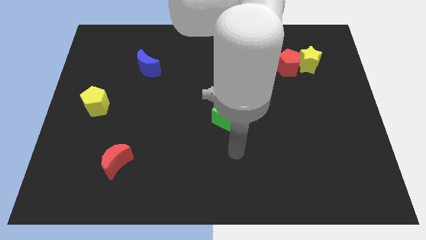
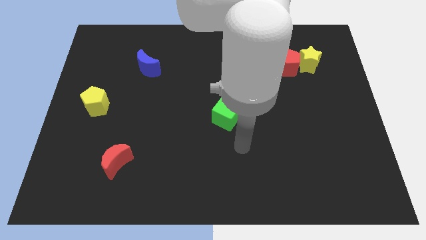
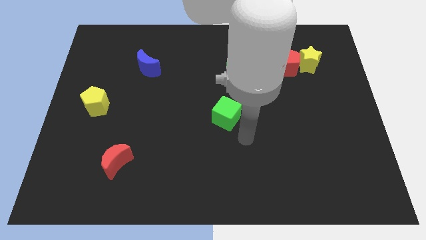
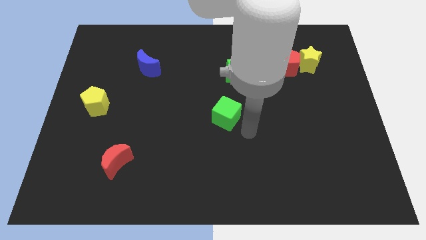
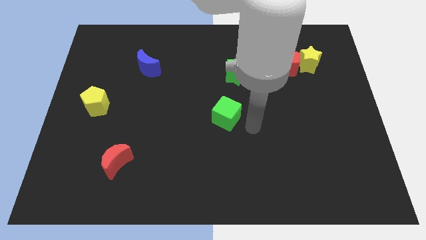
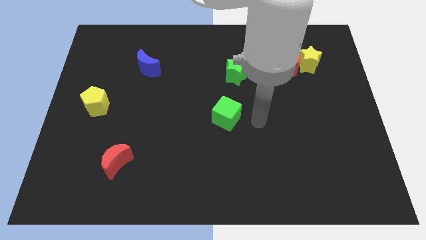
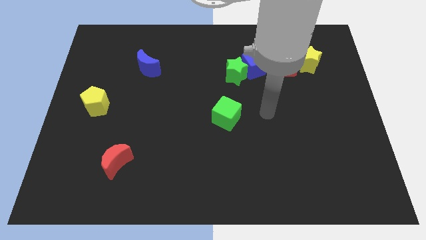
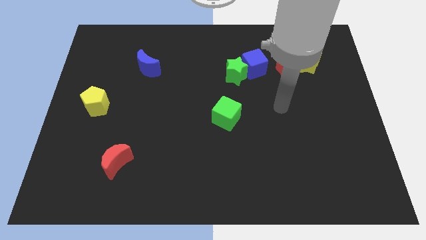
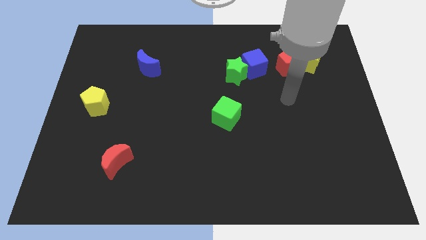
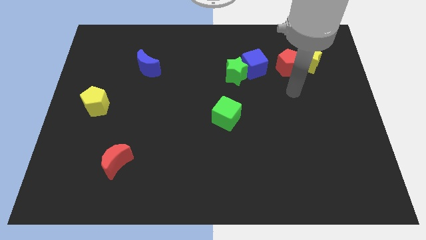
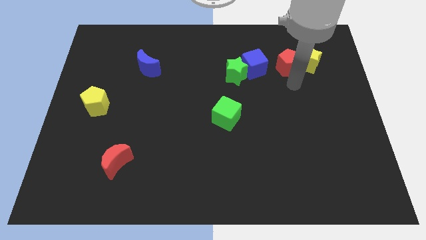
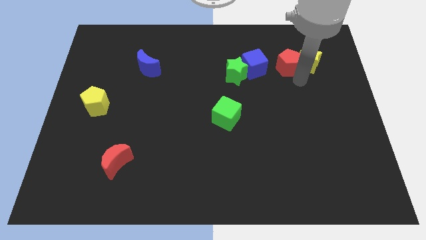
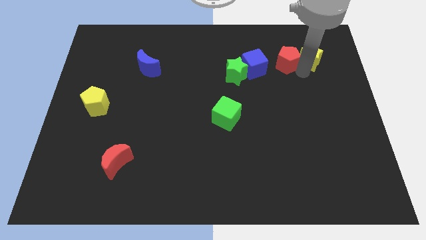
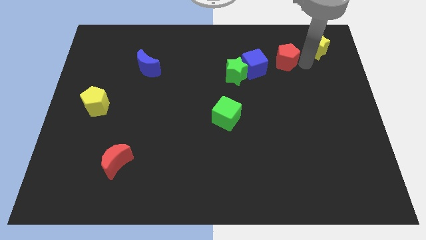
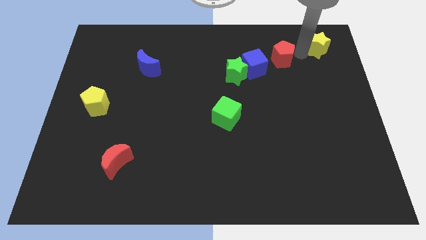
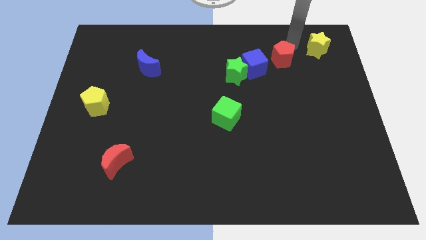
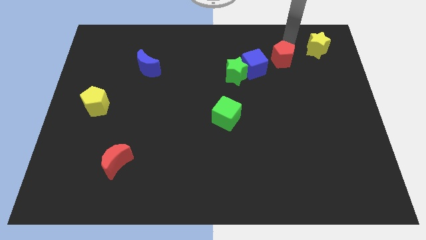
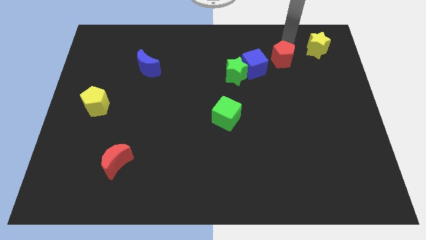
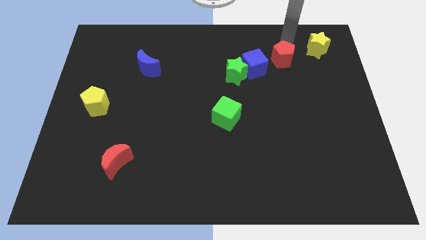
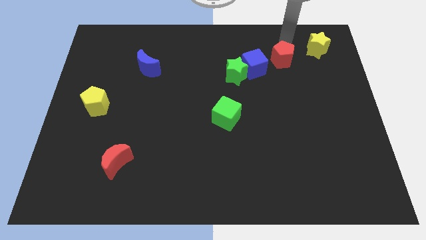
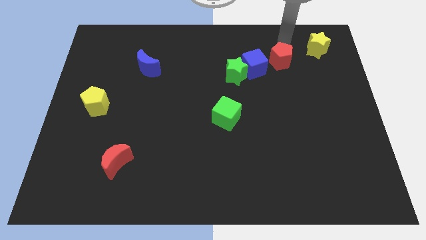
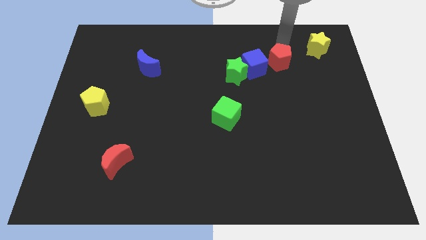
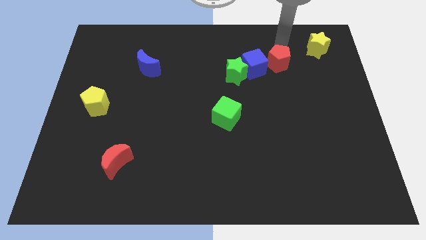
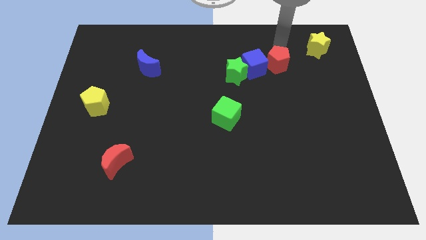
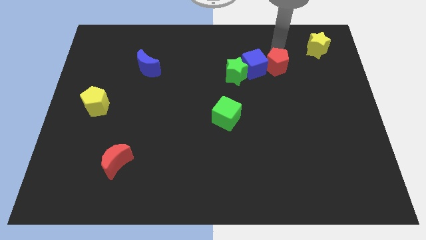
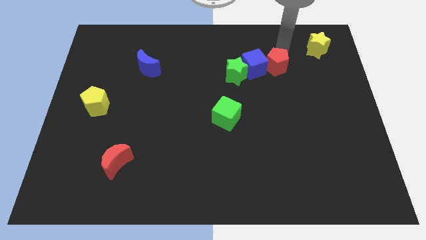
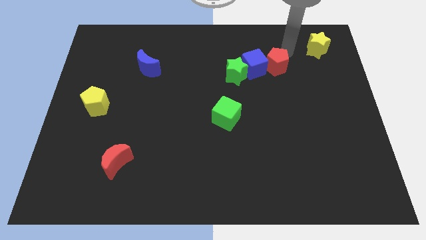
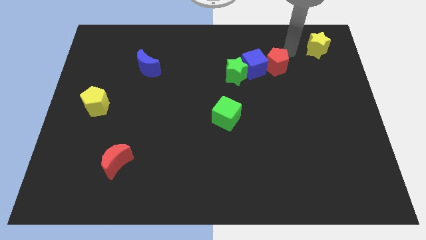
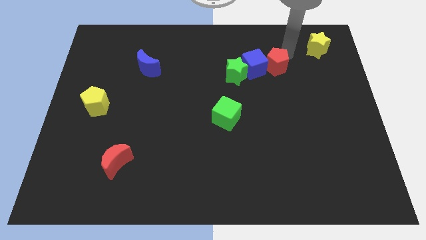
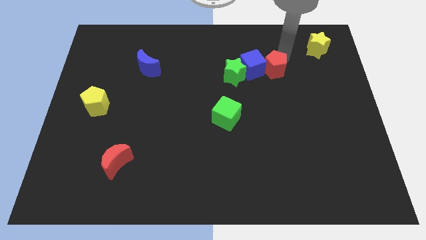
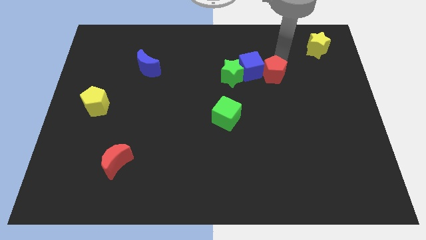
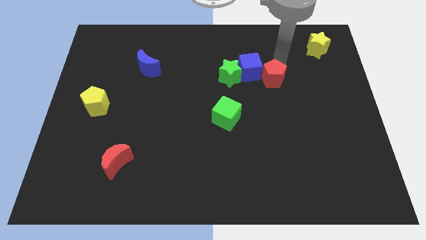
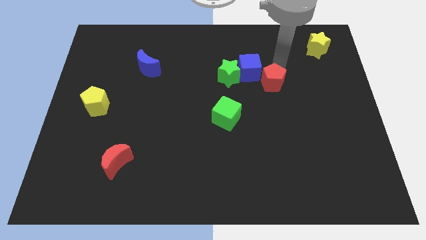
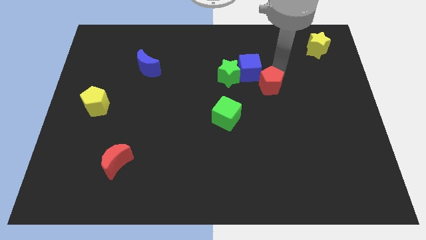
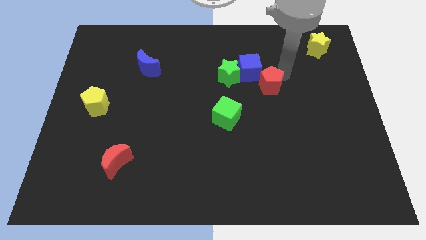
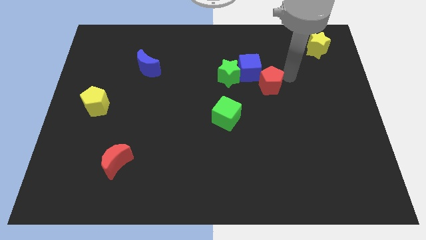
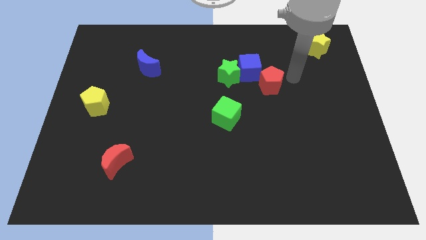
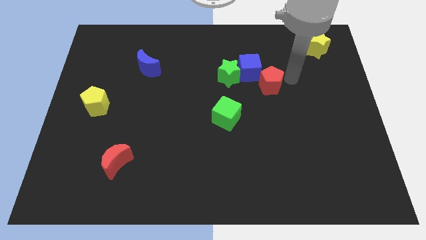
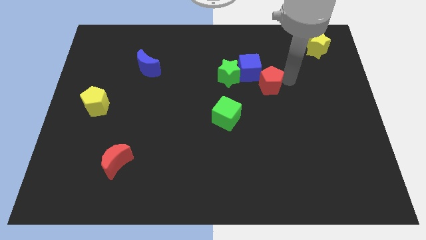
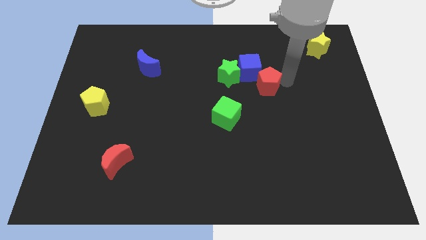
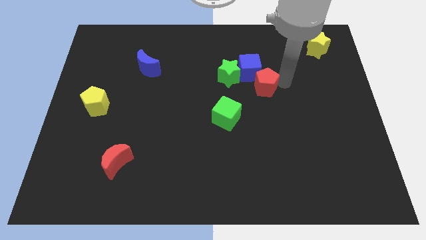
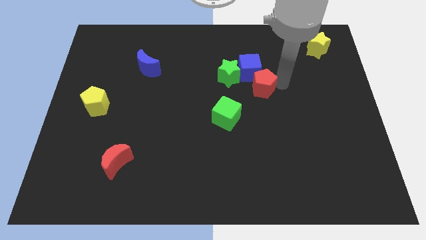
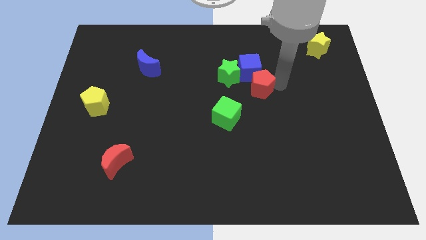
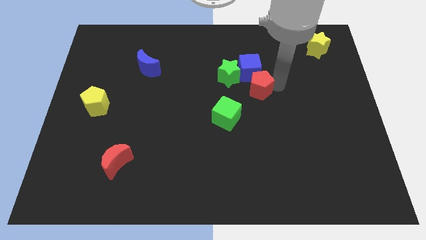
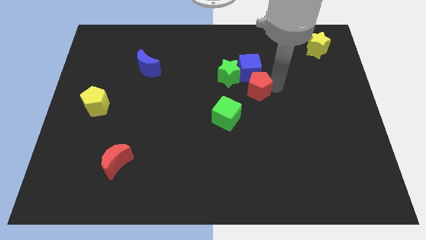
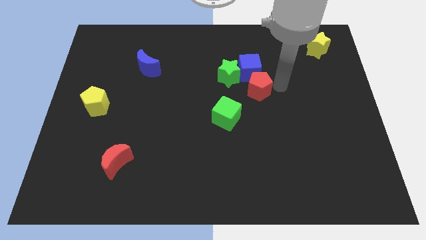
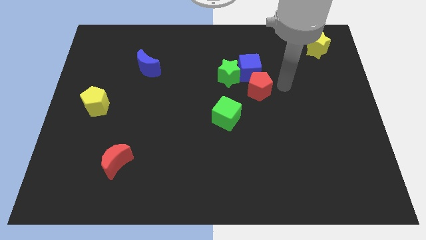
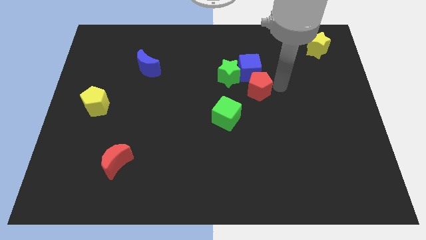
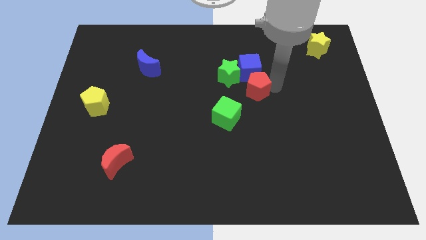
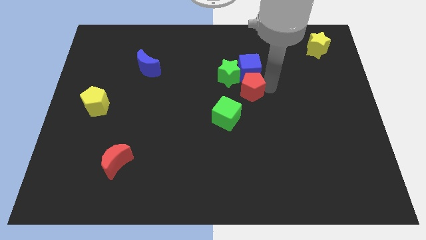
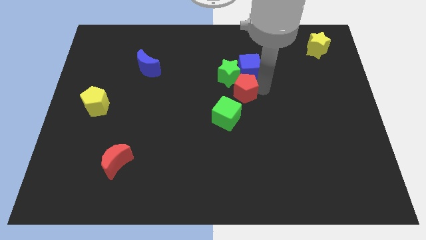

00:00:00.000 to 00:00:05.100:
put the red pentagon to the top side of the green cube

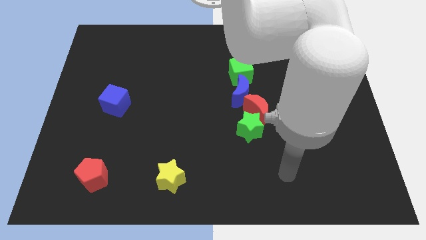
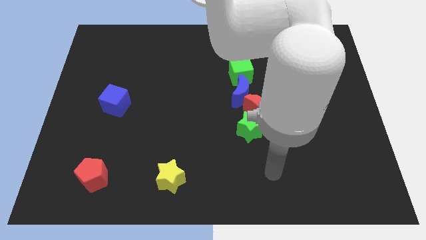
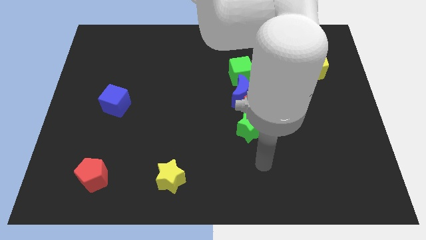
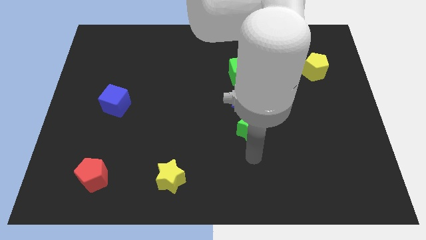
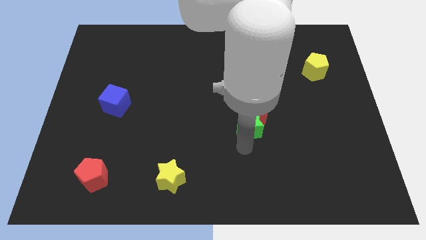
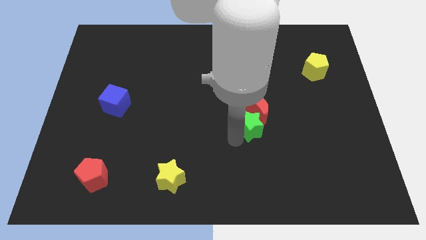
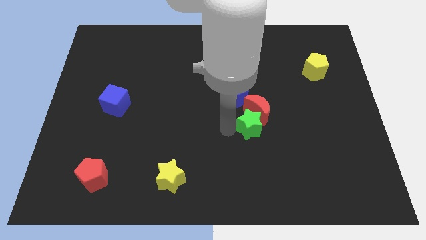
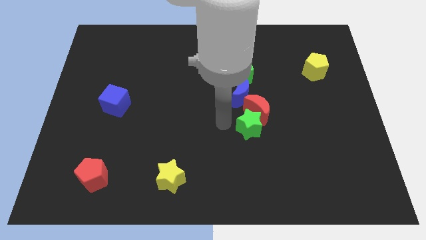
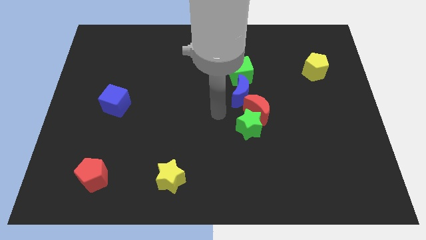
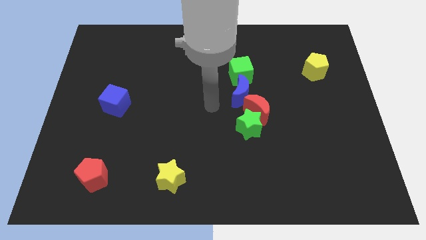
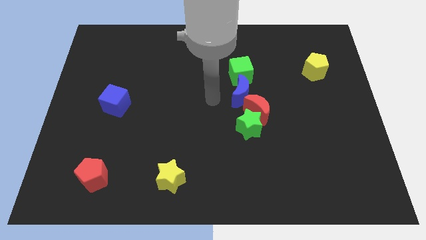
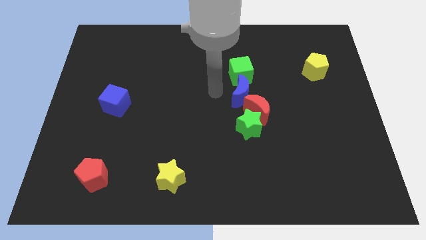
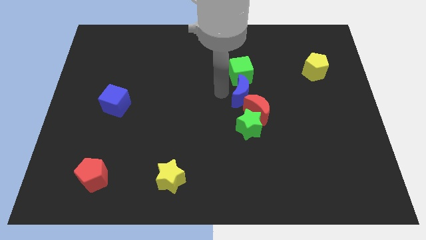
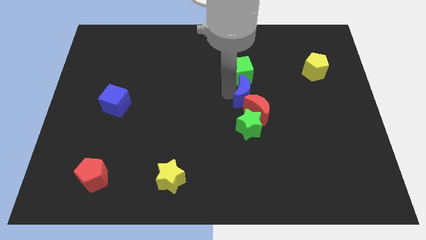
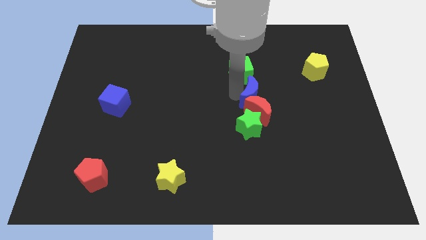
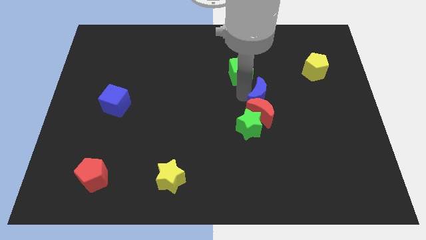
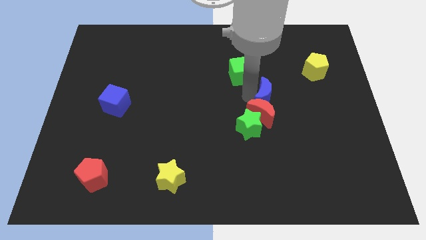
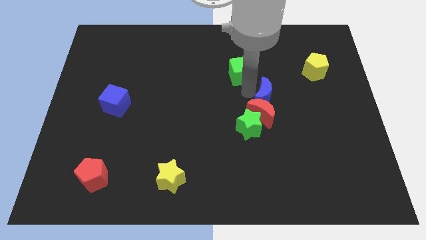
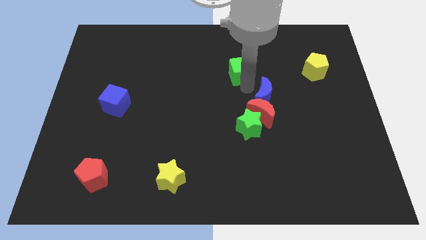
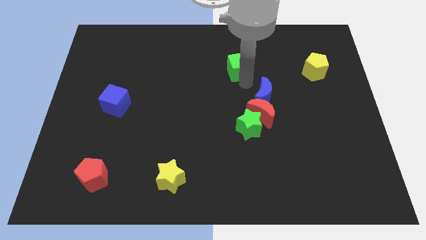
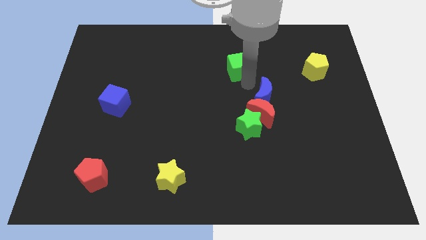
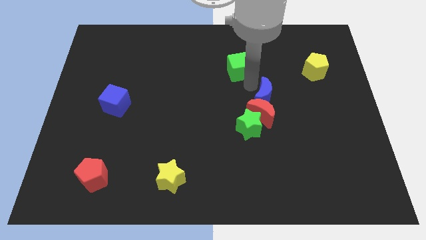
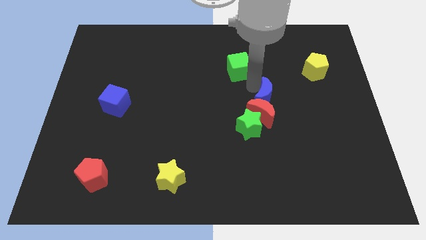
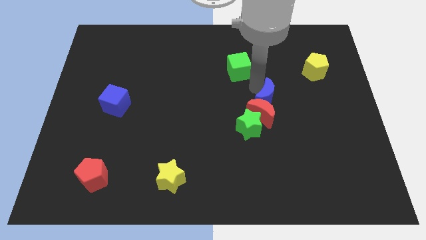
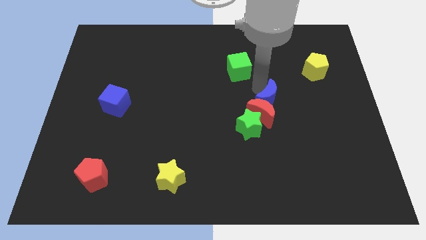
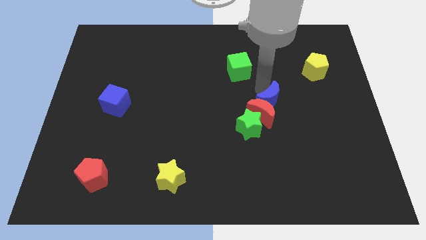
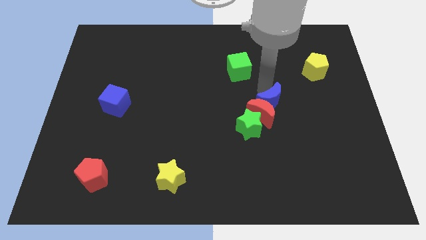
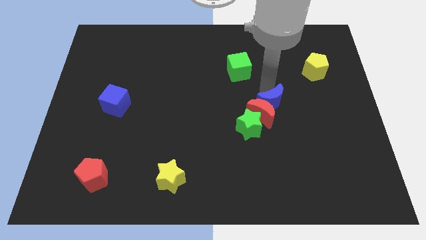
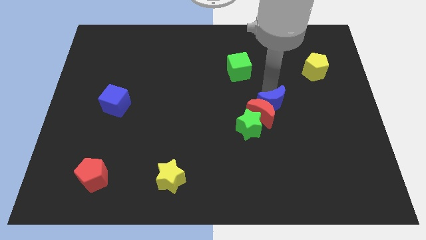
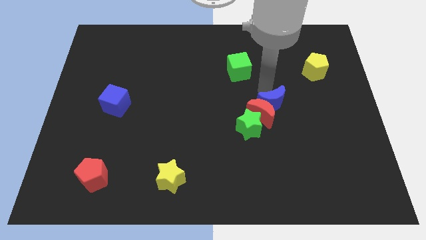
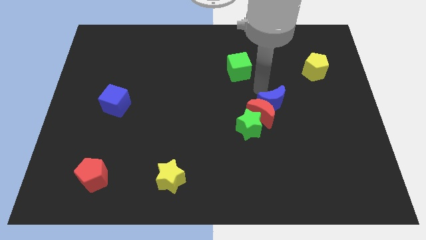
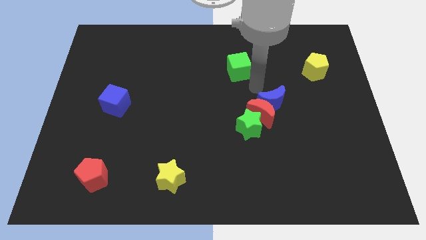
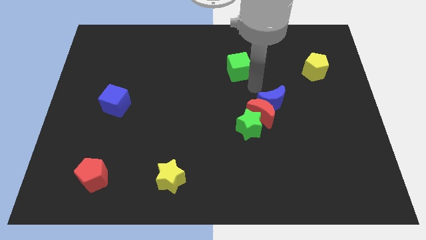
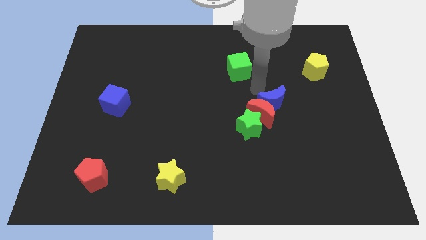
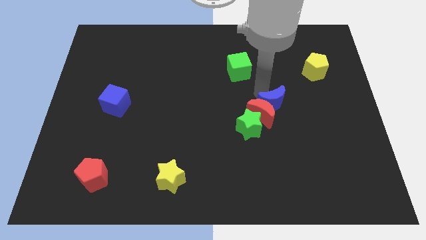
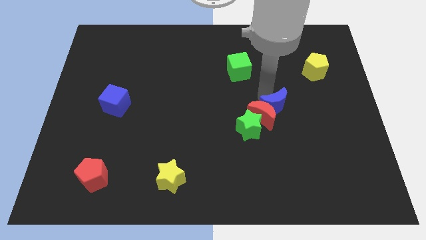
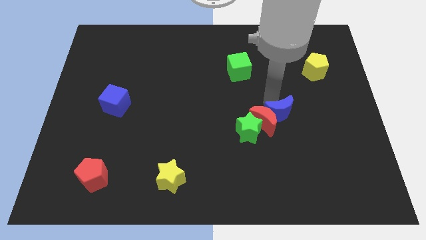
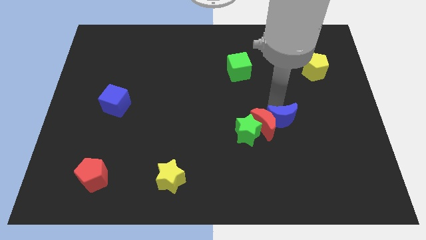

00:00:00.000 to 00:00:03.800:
slide the blue moon to the right side of the green star
